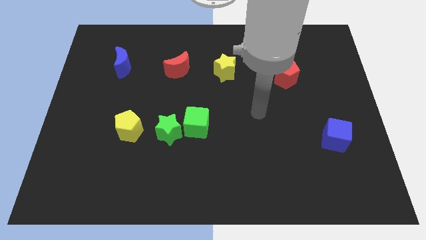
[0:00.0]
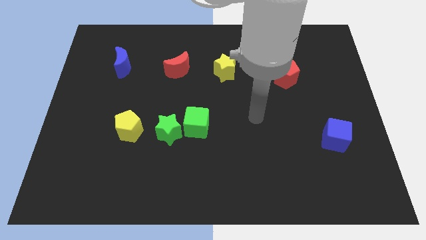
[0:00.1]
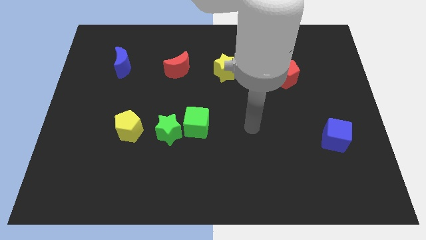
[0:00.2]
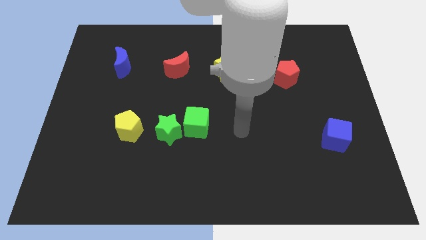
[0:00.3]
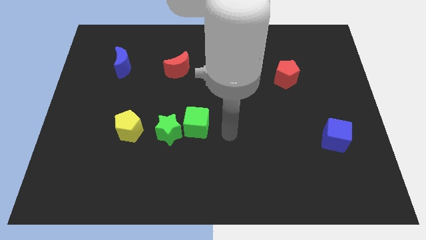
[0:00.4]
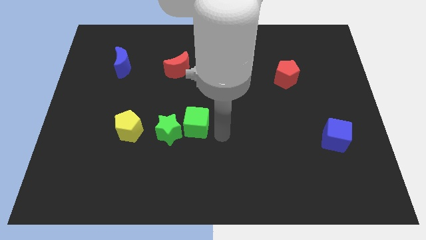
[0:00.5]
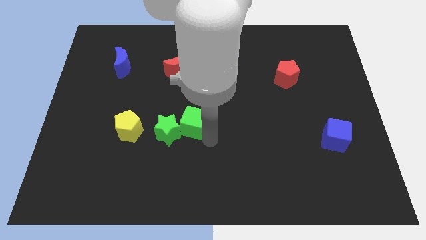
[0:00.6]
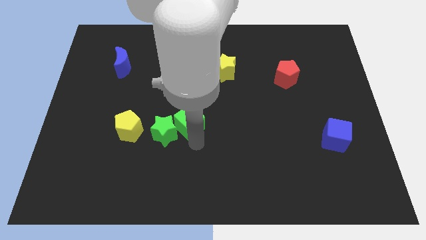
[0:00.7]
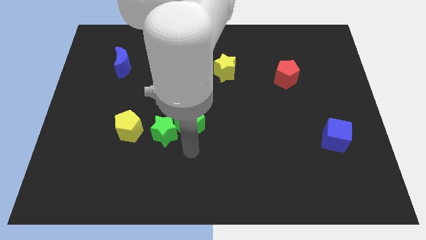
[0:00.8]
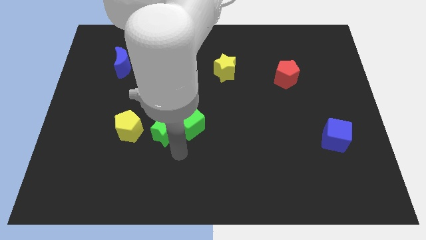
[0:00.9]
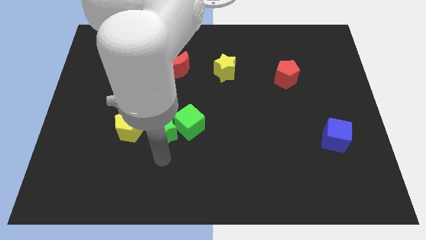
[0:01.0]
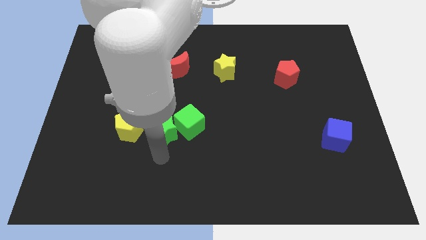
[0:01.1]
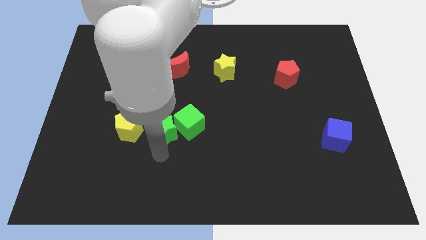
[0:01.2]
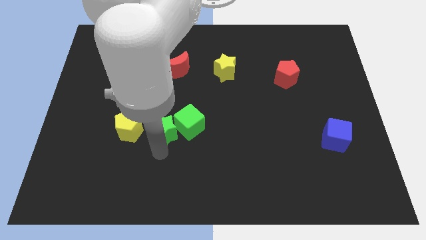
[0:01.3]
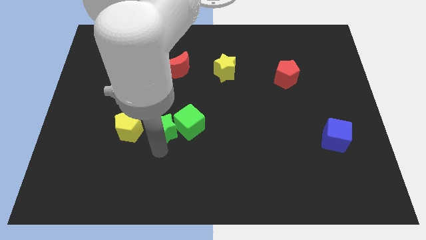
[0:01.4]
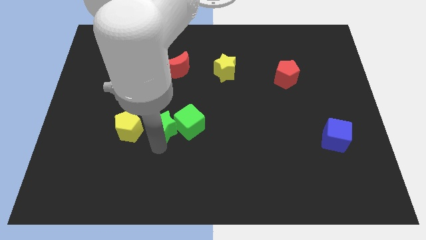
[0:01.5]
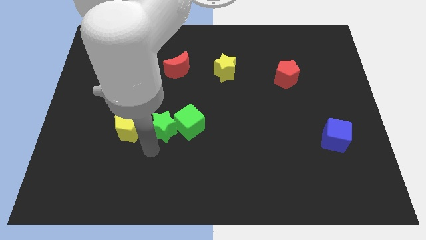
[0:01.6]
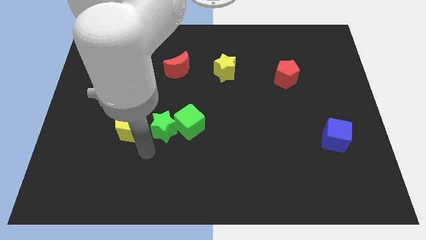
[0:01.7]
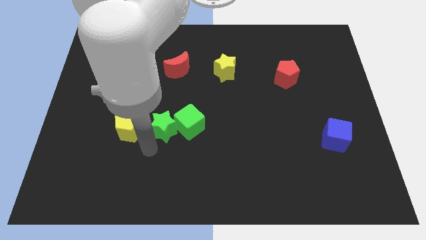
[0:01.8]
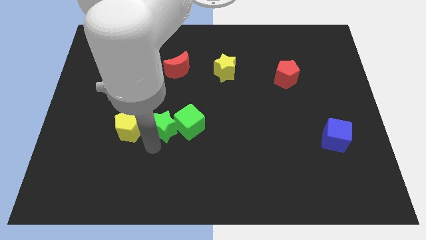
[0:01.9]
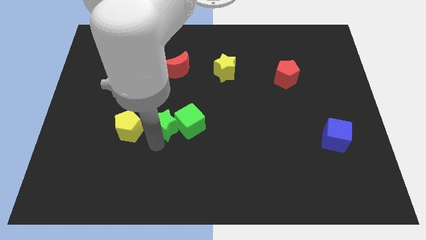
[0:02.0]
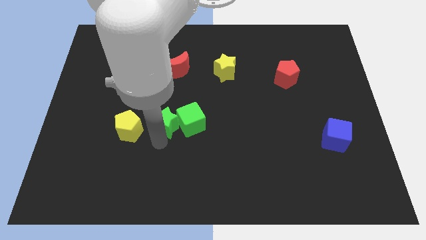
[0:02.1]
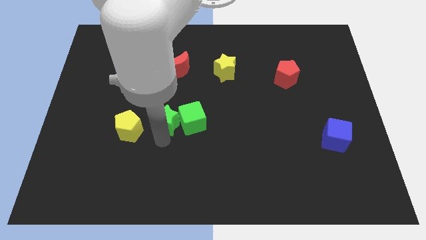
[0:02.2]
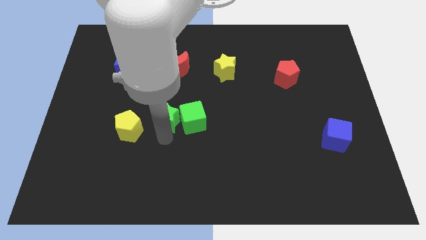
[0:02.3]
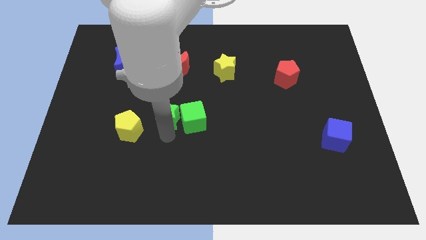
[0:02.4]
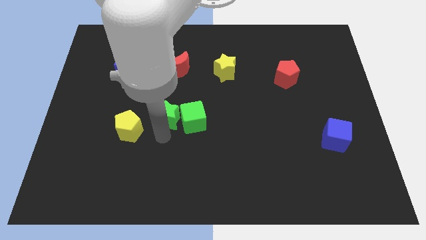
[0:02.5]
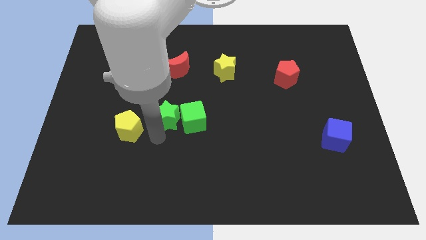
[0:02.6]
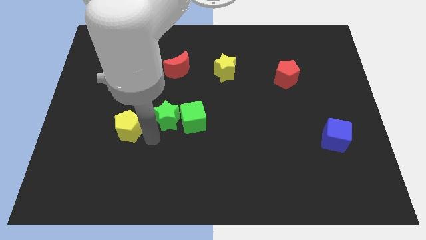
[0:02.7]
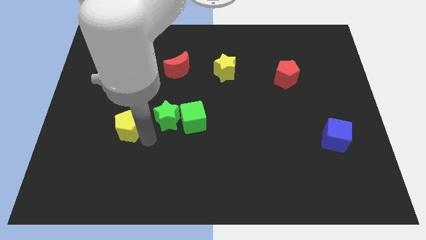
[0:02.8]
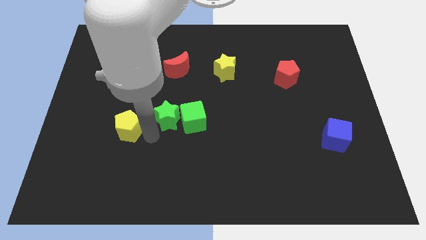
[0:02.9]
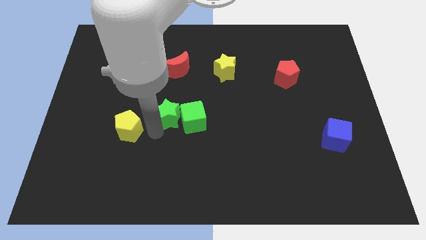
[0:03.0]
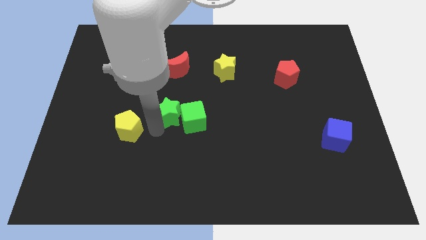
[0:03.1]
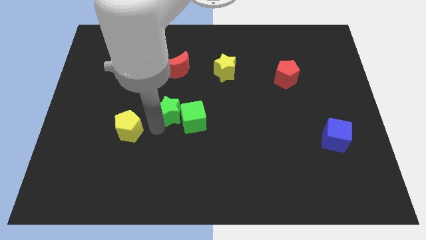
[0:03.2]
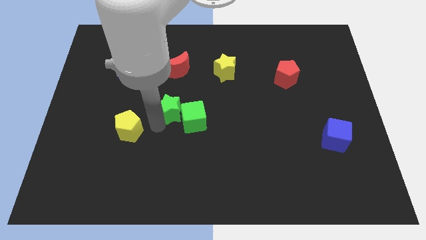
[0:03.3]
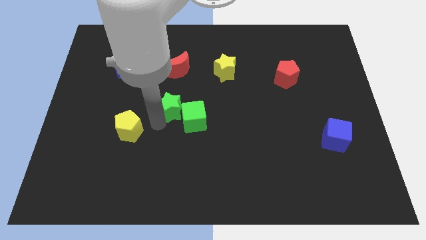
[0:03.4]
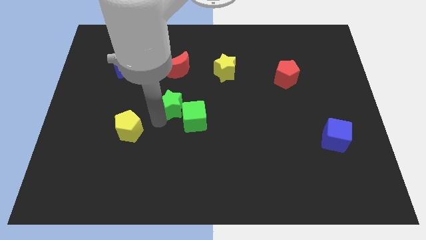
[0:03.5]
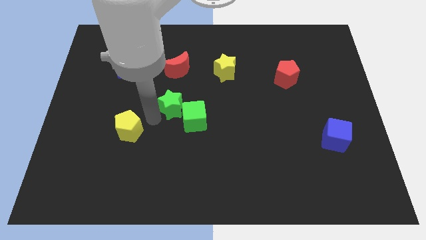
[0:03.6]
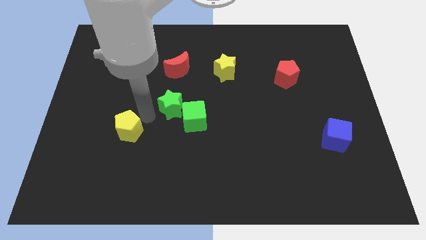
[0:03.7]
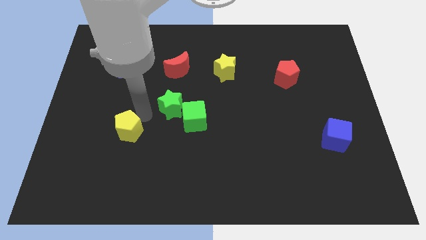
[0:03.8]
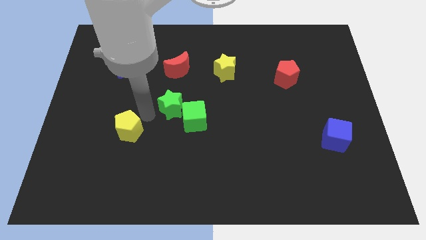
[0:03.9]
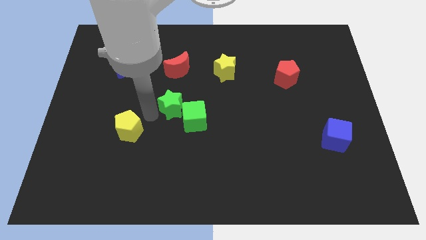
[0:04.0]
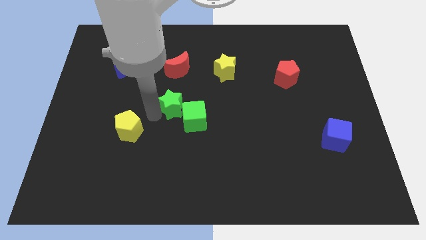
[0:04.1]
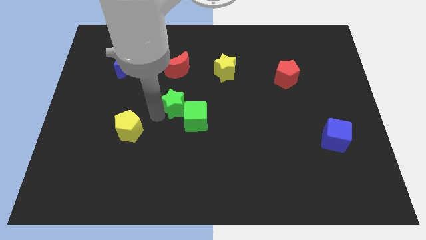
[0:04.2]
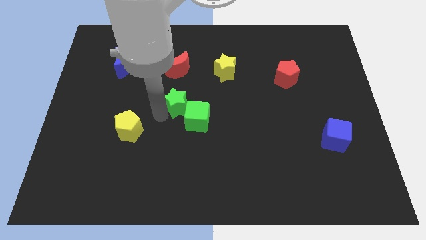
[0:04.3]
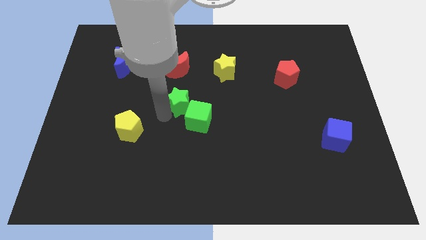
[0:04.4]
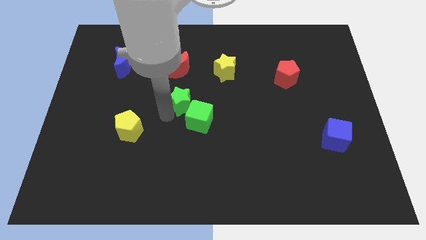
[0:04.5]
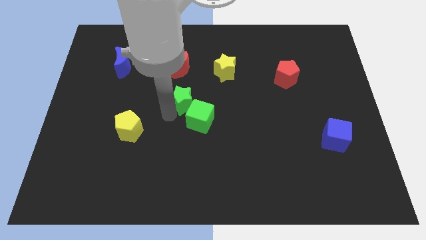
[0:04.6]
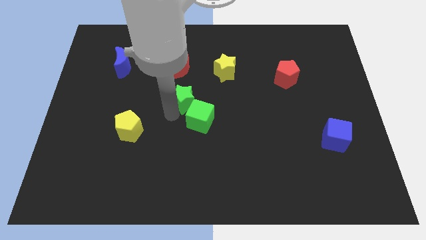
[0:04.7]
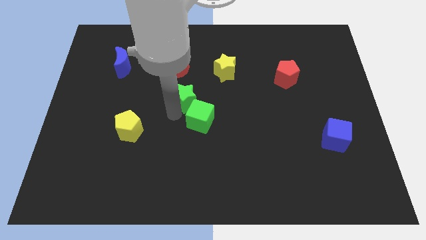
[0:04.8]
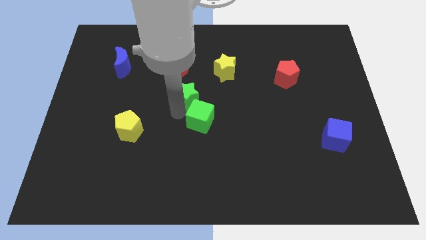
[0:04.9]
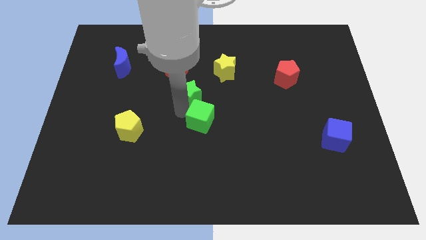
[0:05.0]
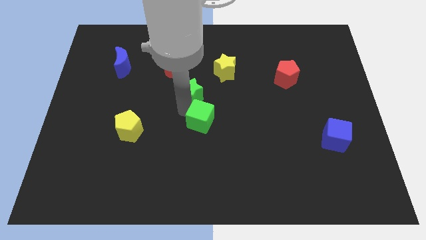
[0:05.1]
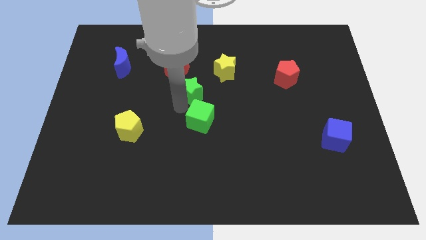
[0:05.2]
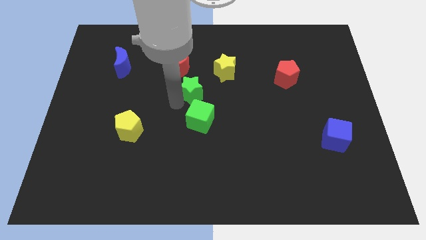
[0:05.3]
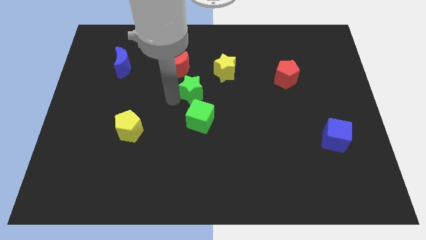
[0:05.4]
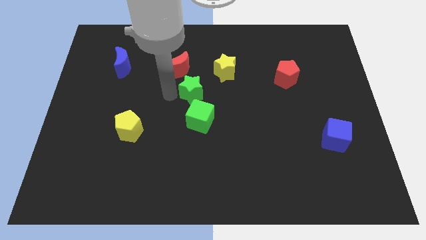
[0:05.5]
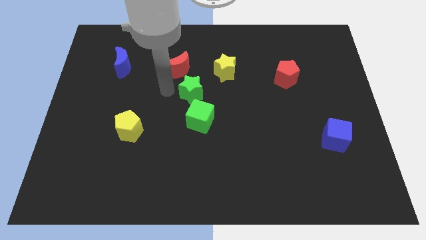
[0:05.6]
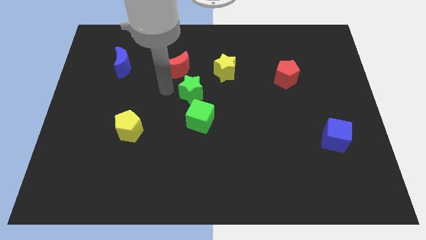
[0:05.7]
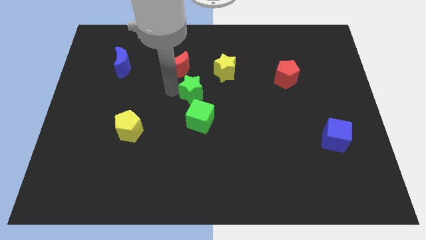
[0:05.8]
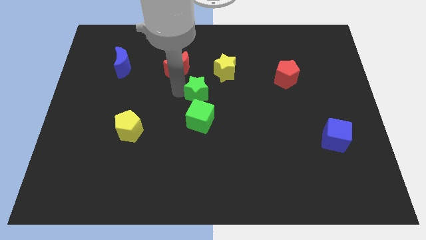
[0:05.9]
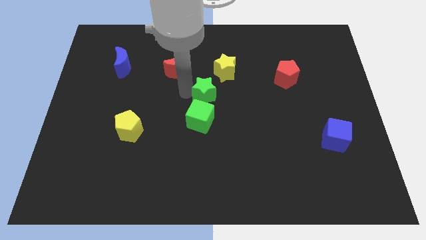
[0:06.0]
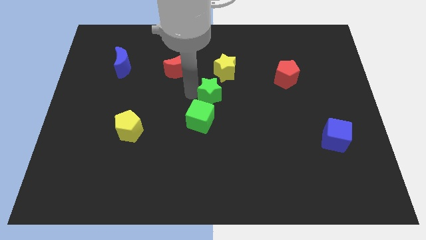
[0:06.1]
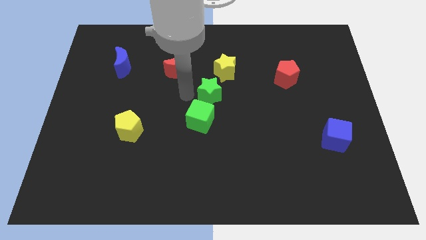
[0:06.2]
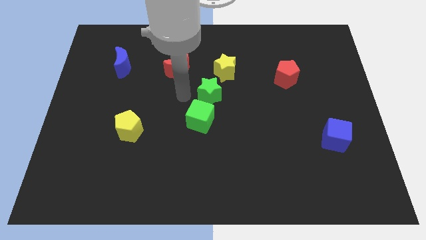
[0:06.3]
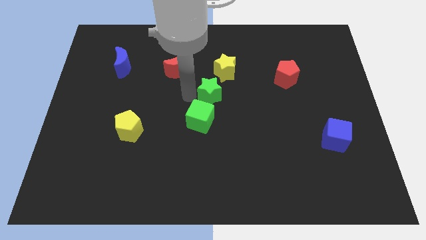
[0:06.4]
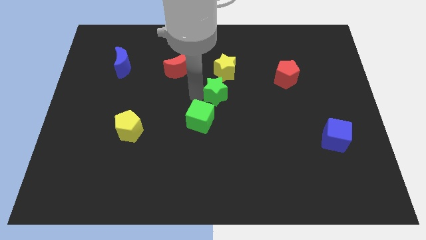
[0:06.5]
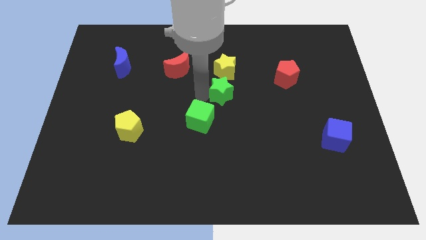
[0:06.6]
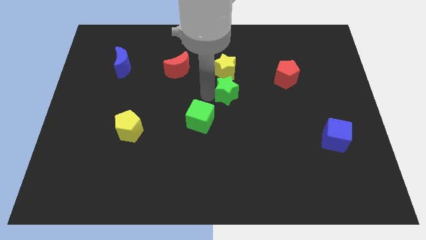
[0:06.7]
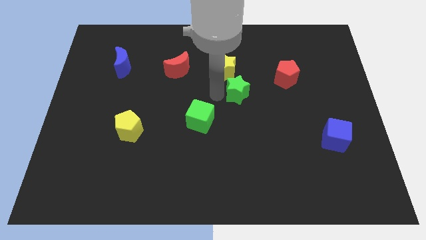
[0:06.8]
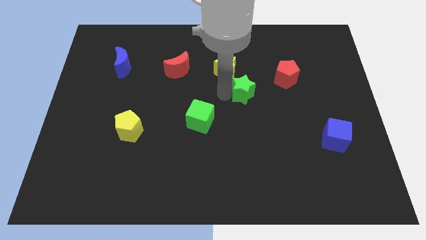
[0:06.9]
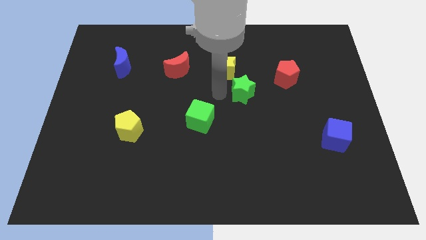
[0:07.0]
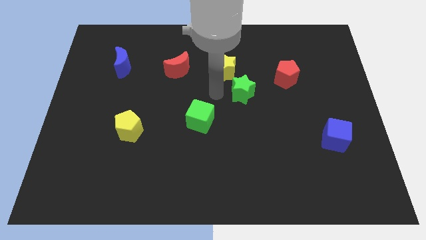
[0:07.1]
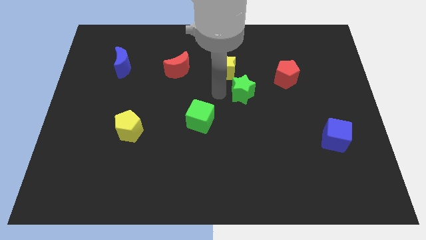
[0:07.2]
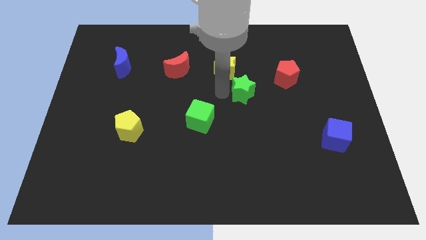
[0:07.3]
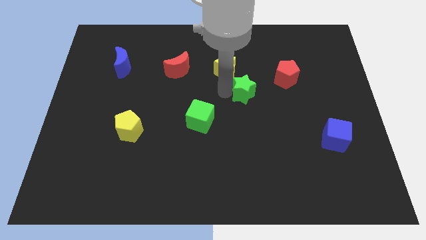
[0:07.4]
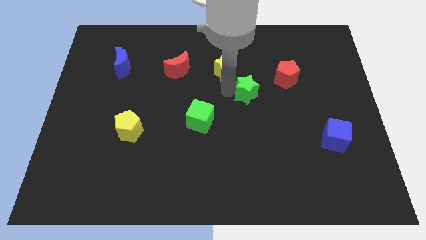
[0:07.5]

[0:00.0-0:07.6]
put the green star diagonally down and to the left of the red pentagon
